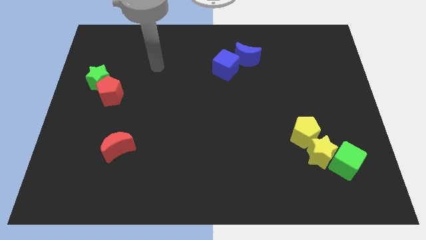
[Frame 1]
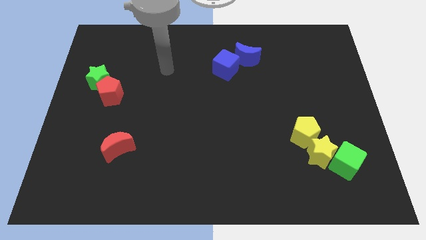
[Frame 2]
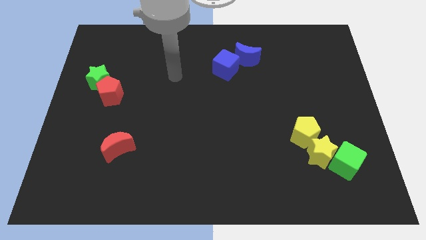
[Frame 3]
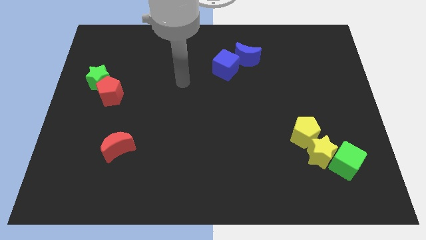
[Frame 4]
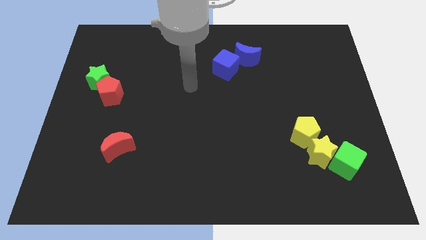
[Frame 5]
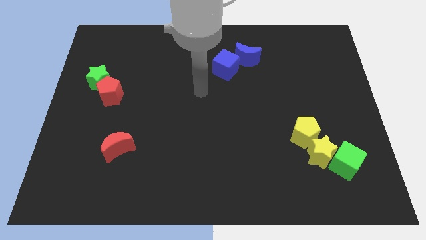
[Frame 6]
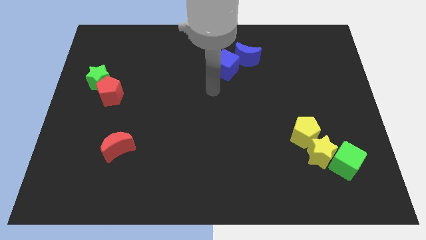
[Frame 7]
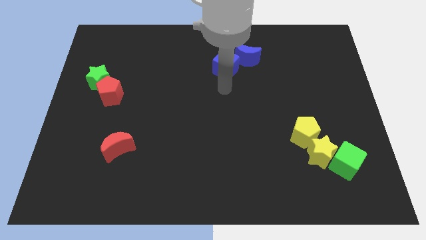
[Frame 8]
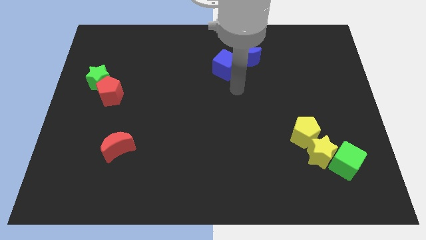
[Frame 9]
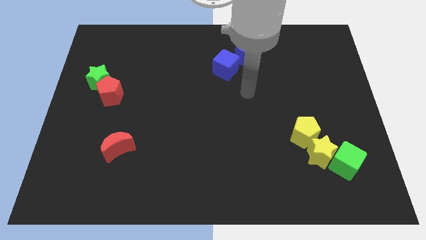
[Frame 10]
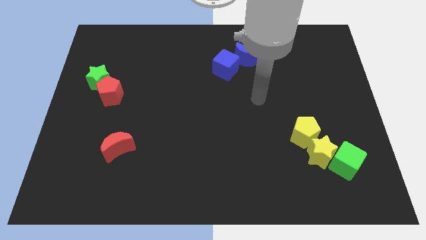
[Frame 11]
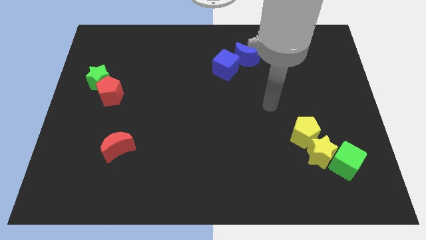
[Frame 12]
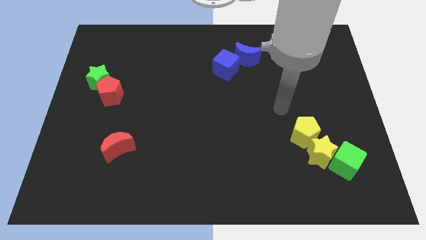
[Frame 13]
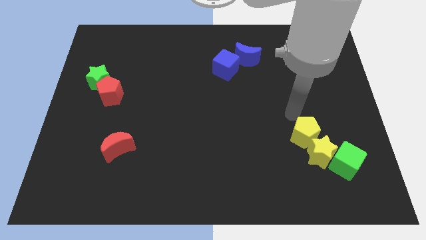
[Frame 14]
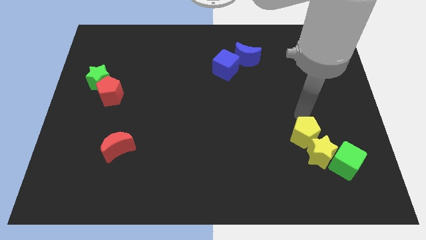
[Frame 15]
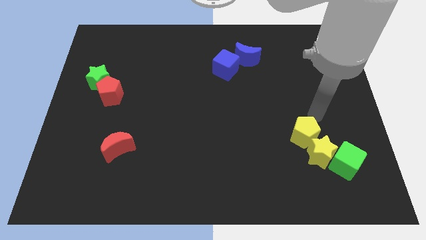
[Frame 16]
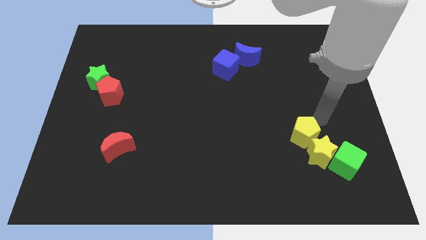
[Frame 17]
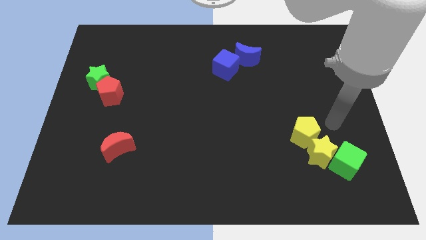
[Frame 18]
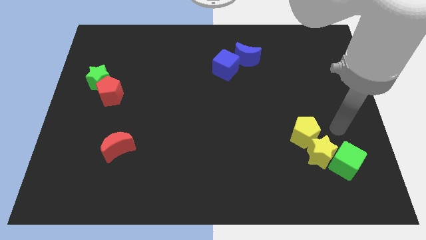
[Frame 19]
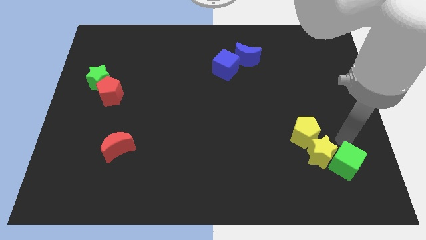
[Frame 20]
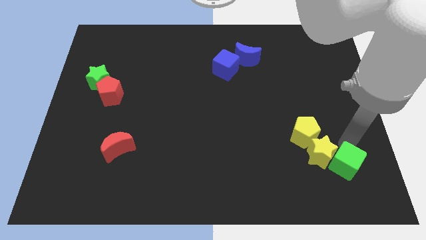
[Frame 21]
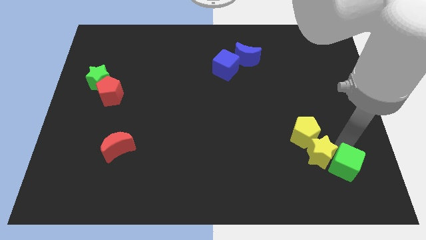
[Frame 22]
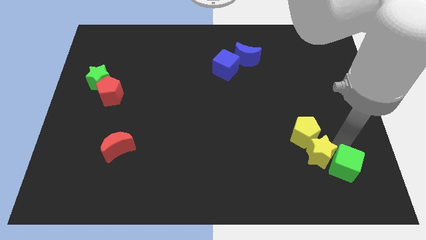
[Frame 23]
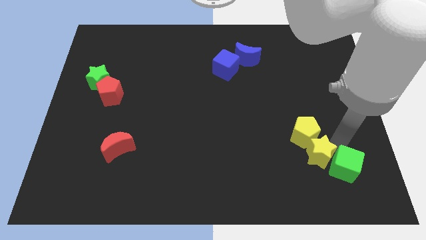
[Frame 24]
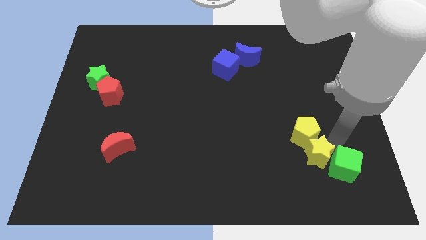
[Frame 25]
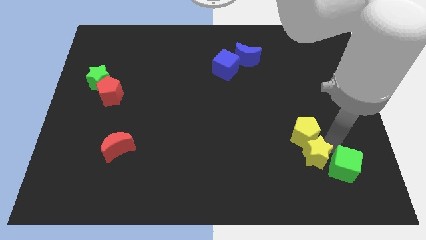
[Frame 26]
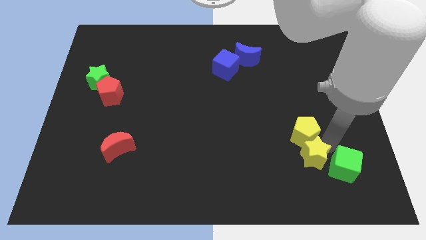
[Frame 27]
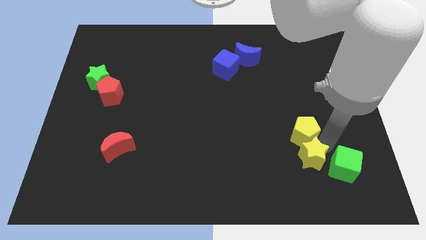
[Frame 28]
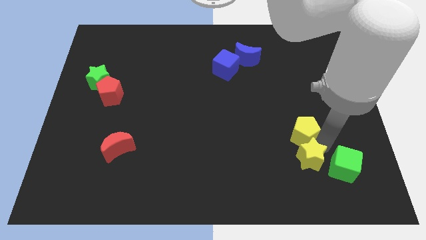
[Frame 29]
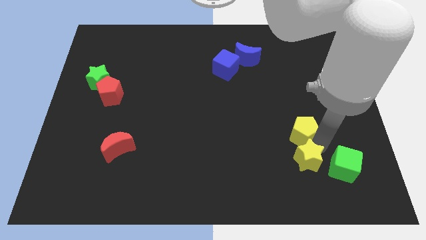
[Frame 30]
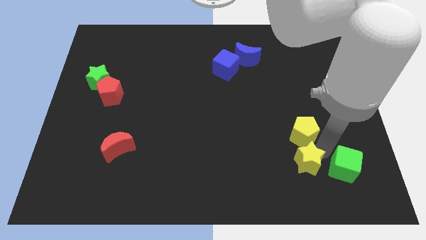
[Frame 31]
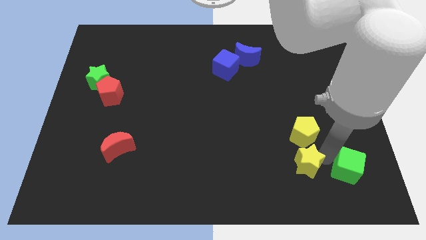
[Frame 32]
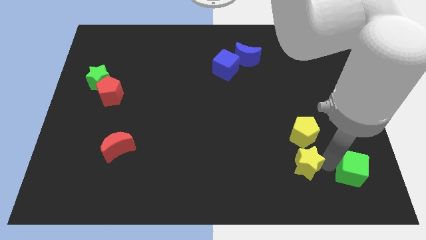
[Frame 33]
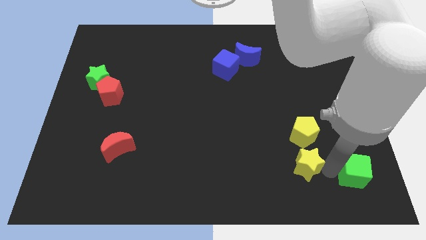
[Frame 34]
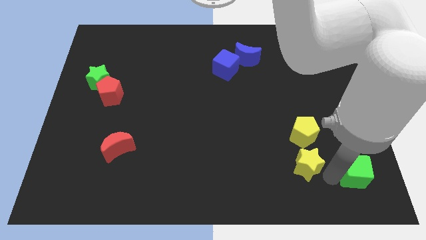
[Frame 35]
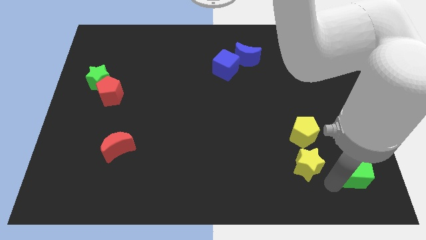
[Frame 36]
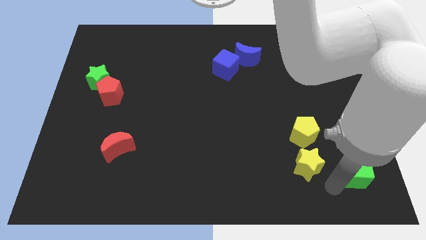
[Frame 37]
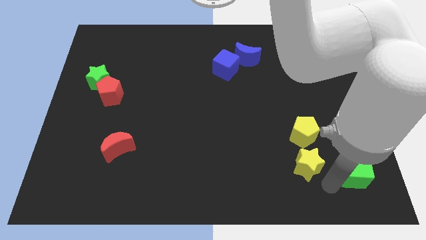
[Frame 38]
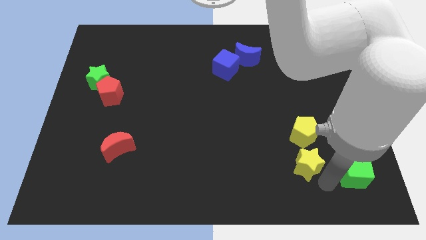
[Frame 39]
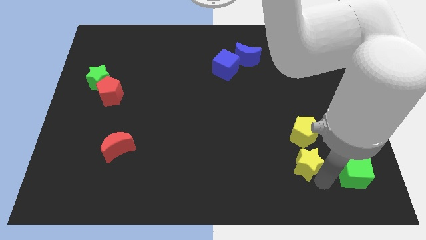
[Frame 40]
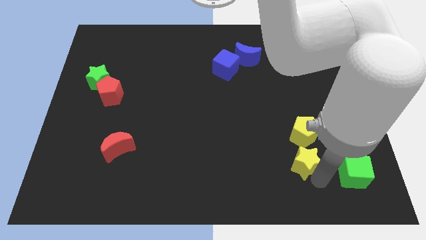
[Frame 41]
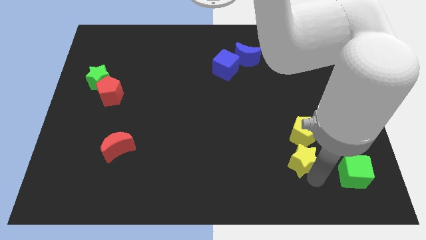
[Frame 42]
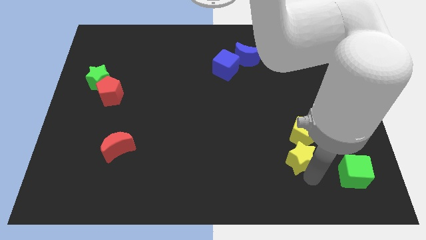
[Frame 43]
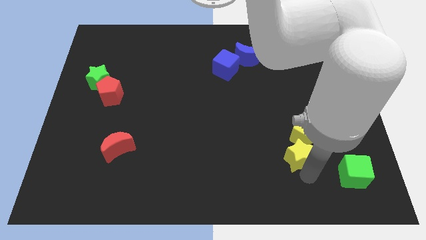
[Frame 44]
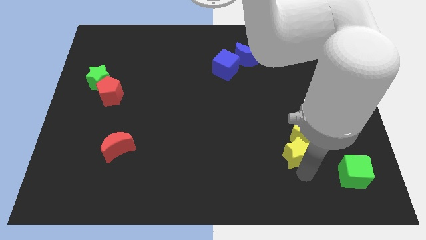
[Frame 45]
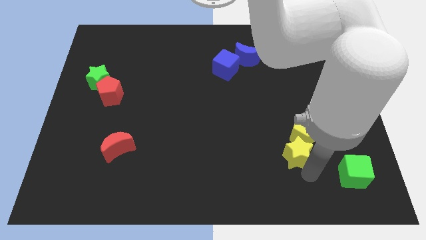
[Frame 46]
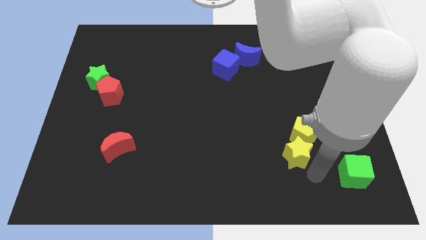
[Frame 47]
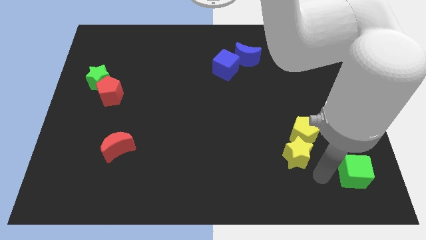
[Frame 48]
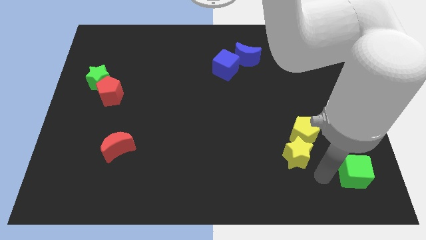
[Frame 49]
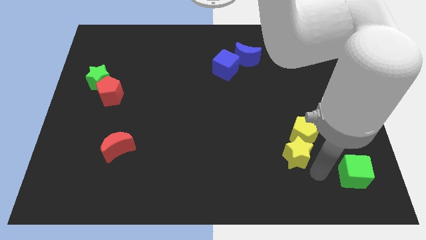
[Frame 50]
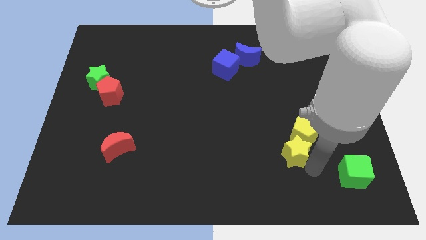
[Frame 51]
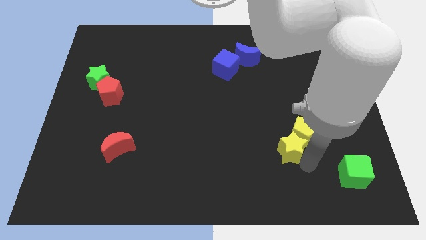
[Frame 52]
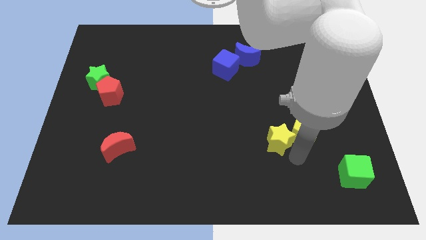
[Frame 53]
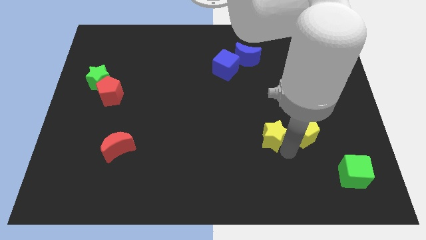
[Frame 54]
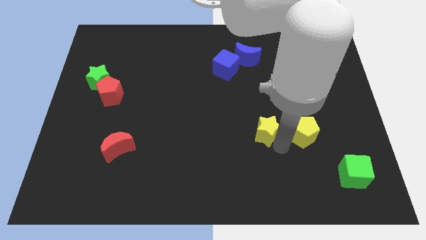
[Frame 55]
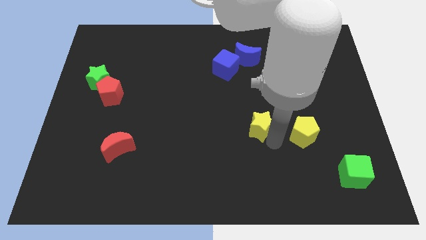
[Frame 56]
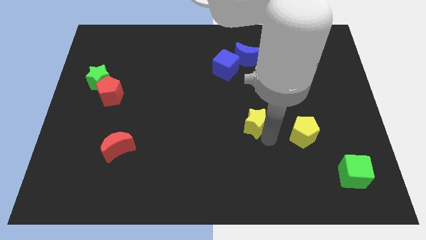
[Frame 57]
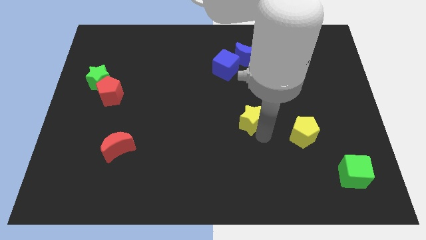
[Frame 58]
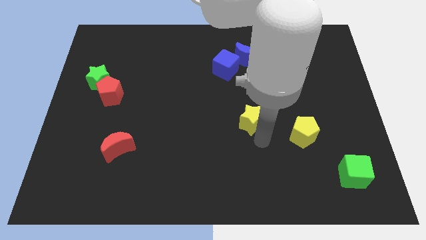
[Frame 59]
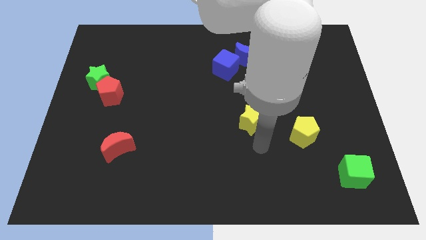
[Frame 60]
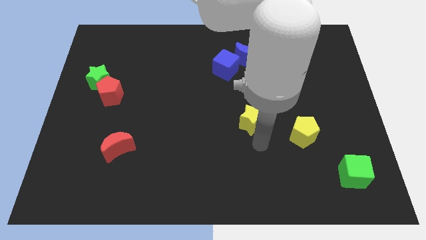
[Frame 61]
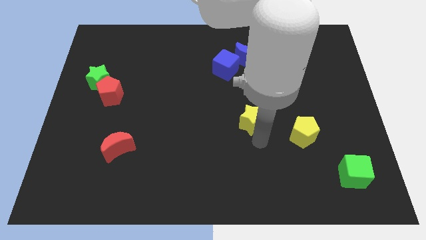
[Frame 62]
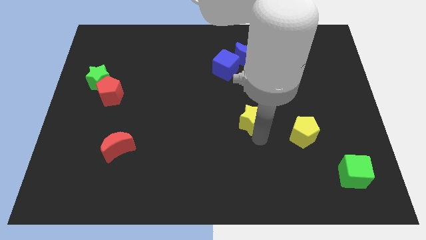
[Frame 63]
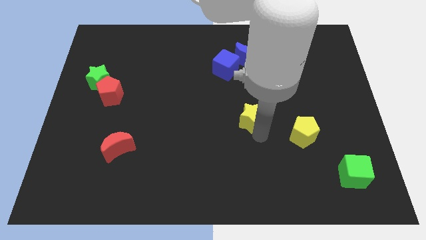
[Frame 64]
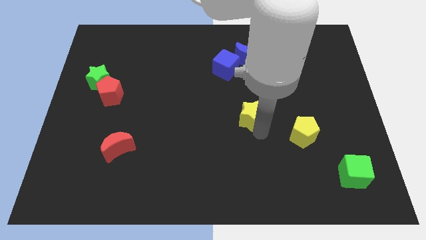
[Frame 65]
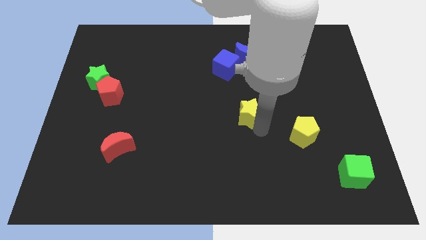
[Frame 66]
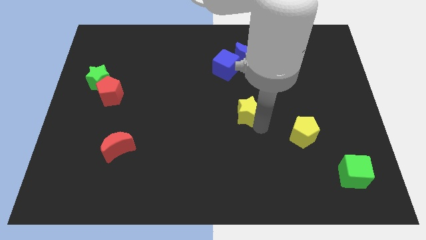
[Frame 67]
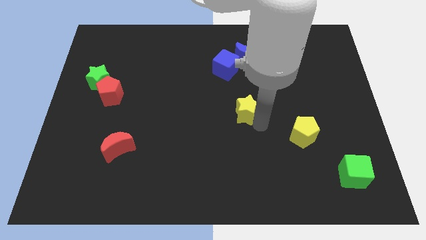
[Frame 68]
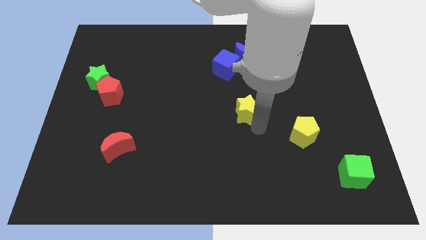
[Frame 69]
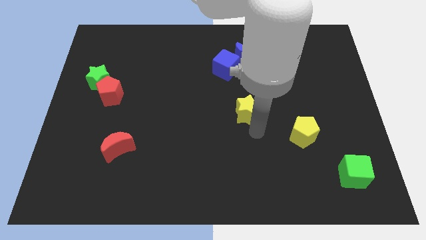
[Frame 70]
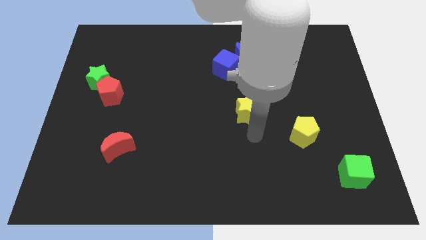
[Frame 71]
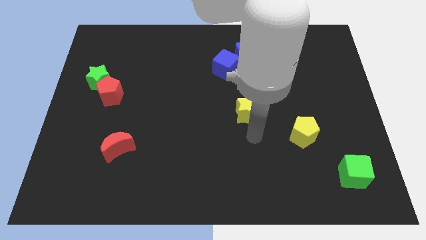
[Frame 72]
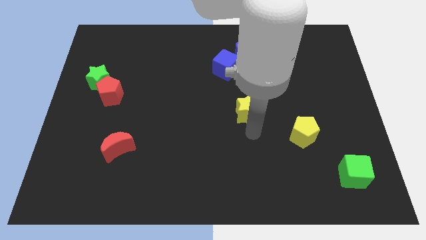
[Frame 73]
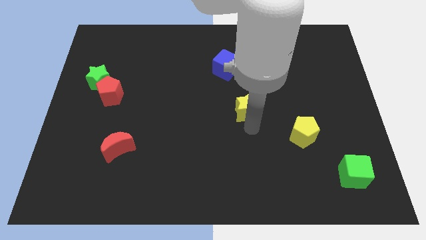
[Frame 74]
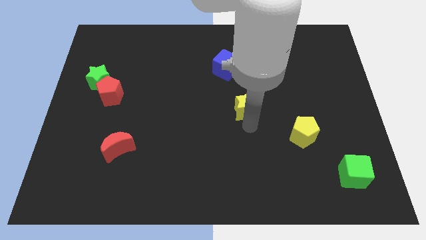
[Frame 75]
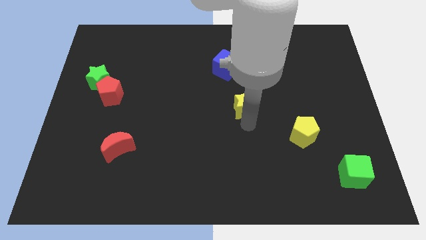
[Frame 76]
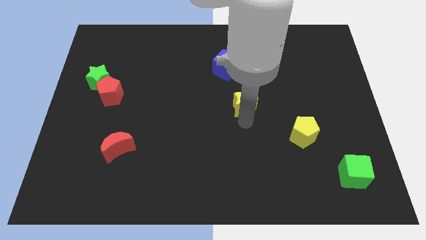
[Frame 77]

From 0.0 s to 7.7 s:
move the yellow star upwards and left diagonally

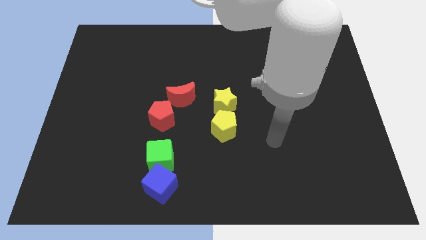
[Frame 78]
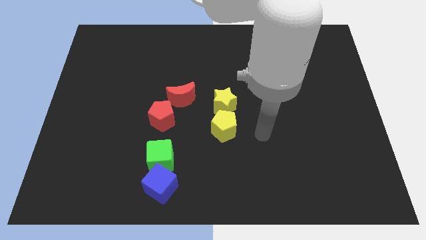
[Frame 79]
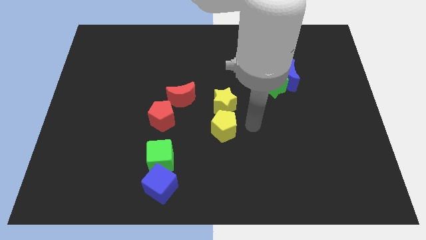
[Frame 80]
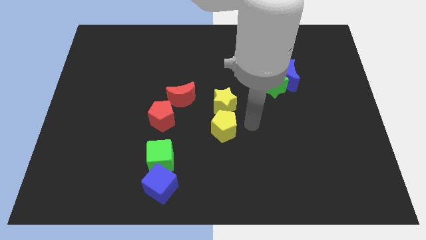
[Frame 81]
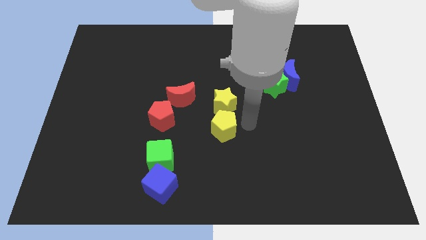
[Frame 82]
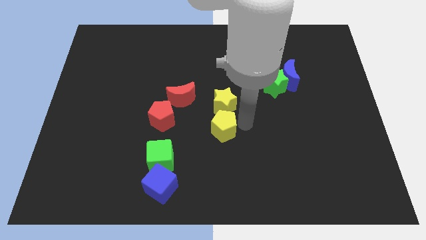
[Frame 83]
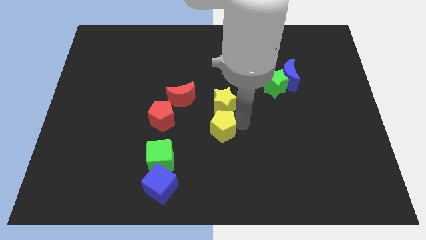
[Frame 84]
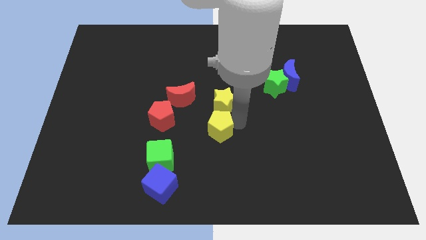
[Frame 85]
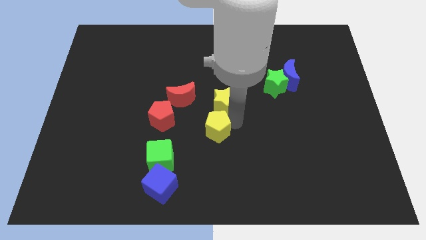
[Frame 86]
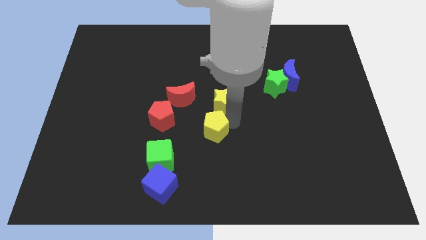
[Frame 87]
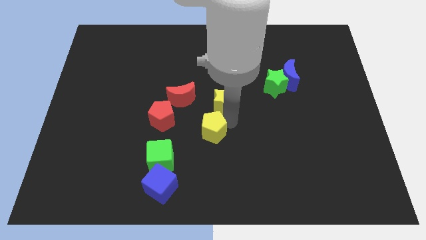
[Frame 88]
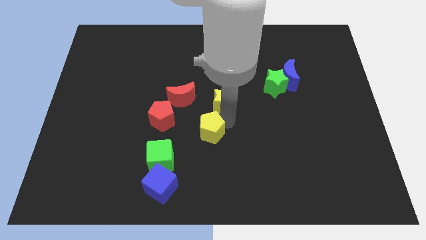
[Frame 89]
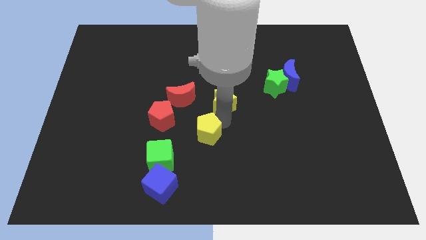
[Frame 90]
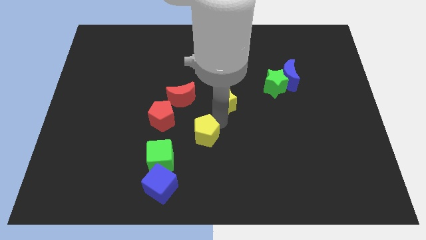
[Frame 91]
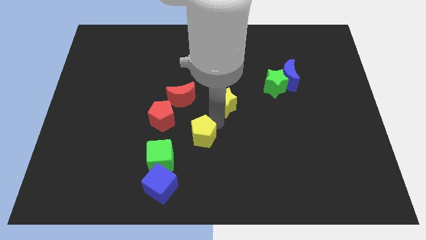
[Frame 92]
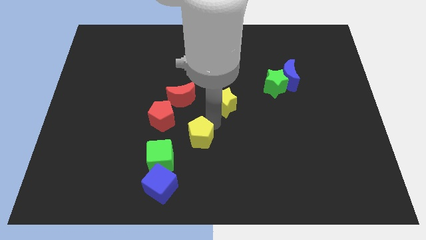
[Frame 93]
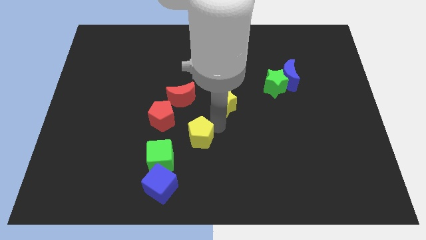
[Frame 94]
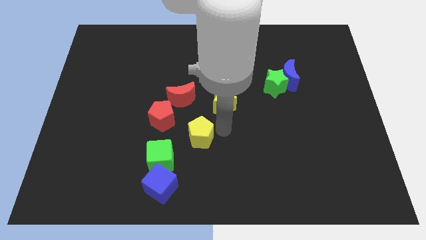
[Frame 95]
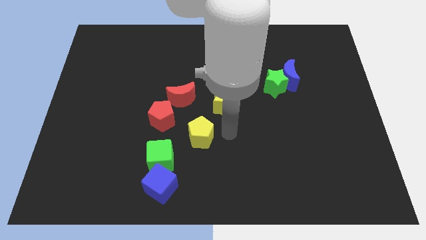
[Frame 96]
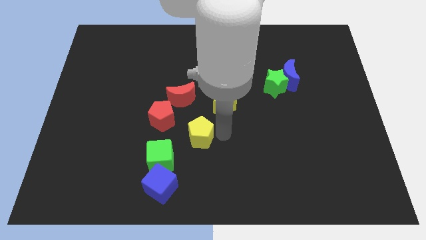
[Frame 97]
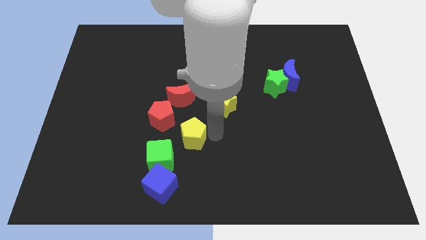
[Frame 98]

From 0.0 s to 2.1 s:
slide the yellow pentagon to the left slightly
